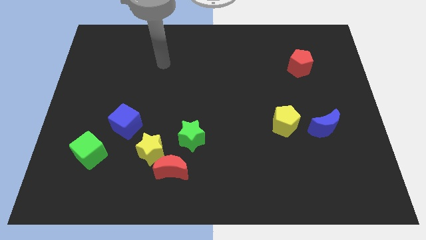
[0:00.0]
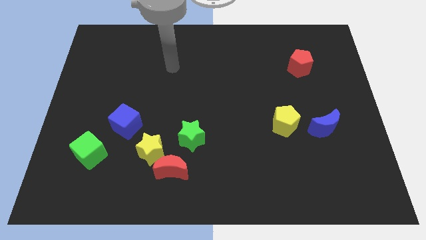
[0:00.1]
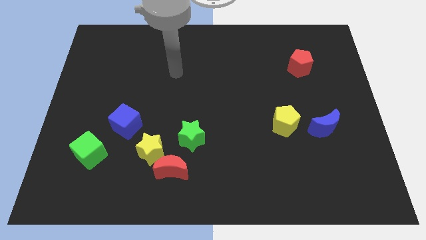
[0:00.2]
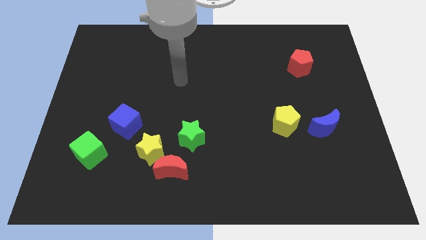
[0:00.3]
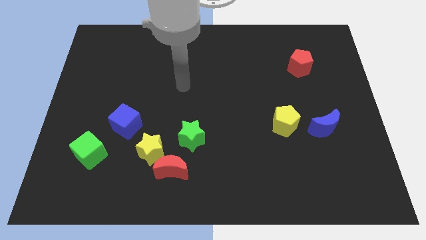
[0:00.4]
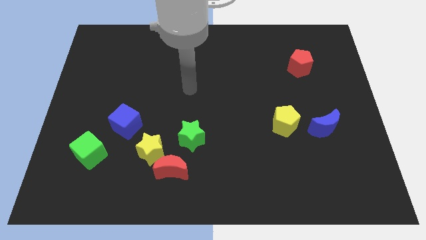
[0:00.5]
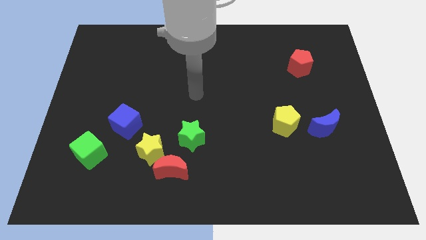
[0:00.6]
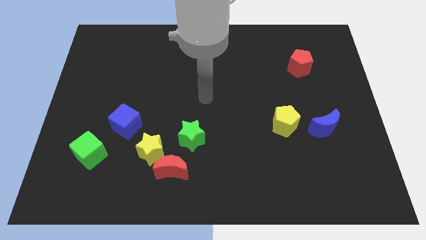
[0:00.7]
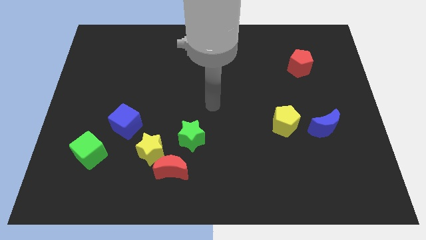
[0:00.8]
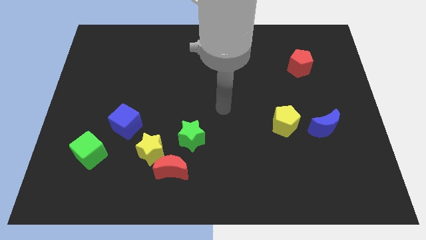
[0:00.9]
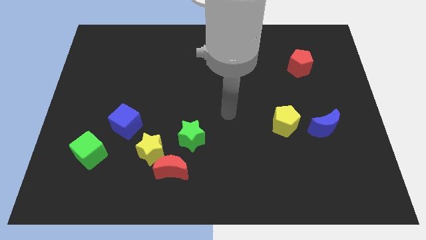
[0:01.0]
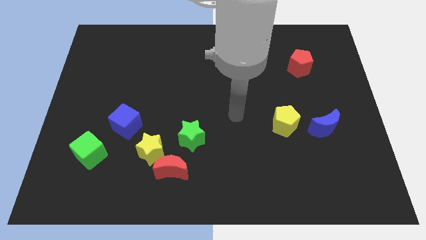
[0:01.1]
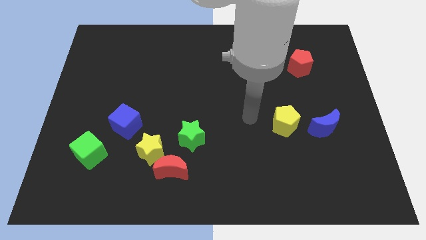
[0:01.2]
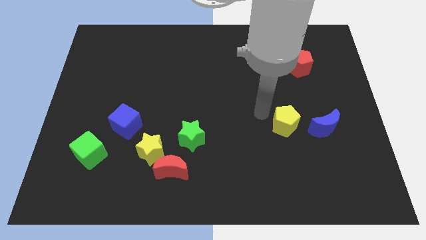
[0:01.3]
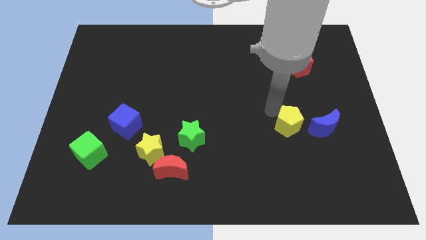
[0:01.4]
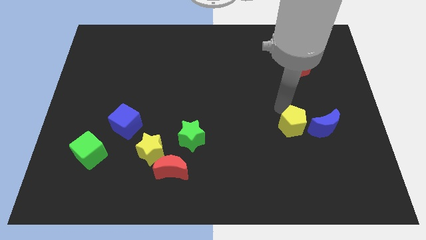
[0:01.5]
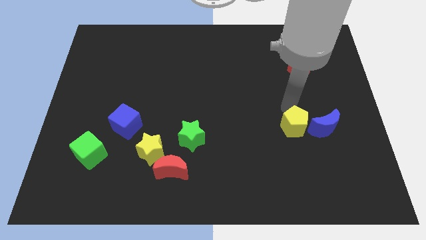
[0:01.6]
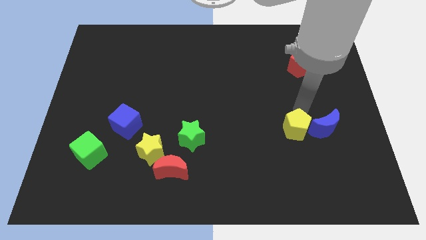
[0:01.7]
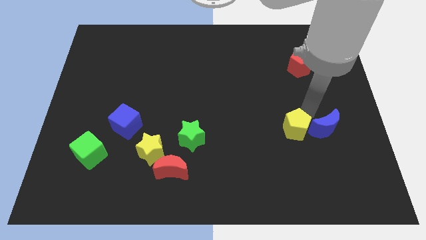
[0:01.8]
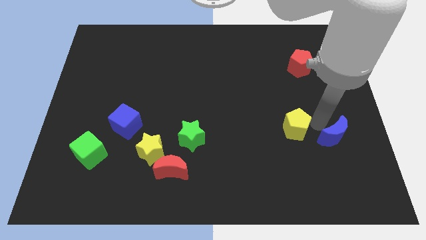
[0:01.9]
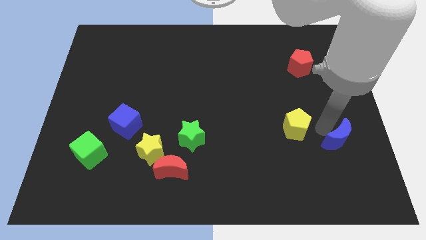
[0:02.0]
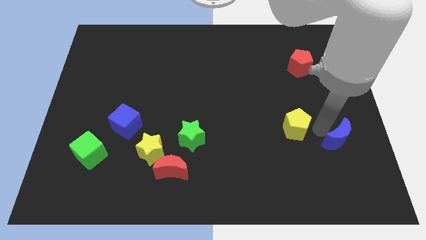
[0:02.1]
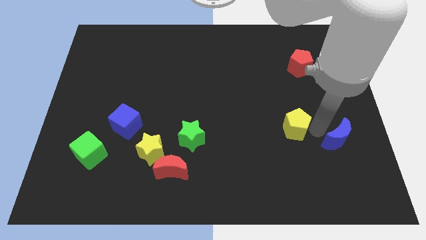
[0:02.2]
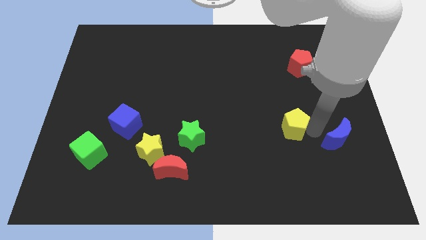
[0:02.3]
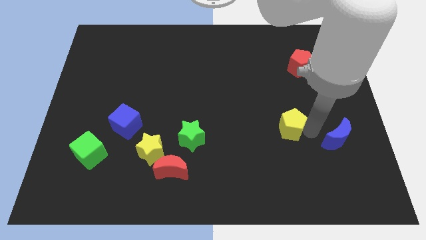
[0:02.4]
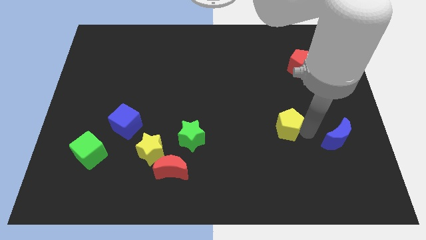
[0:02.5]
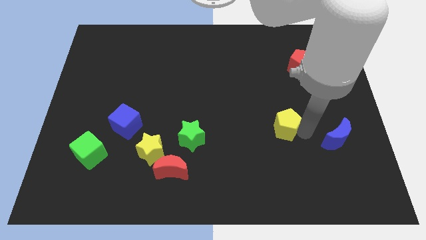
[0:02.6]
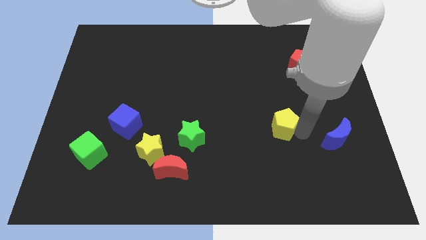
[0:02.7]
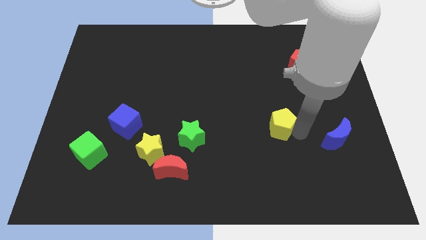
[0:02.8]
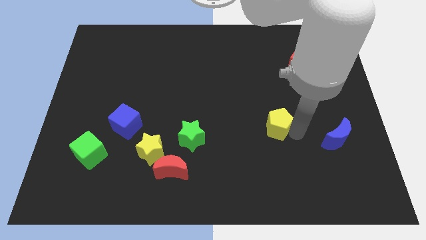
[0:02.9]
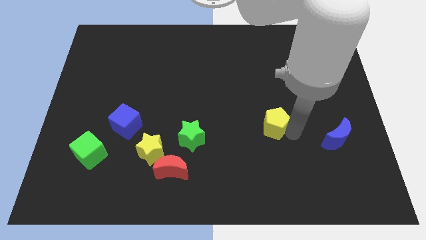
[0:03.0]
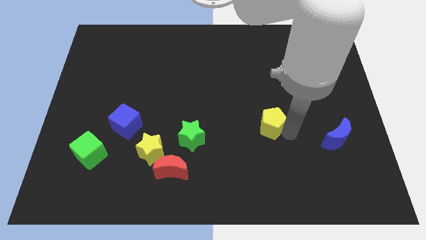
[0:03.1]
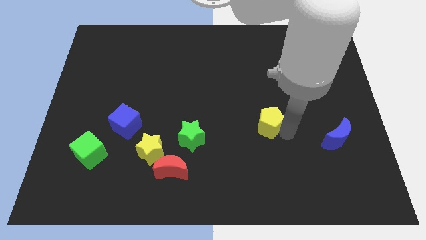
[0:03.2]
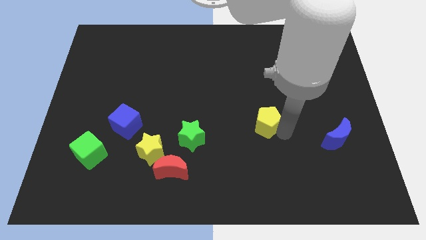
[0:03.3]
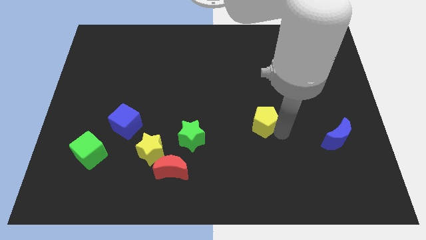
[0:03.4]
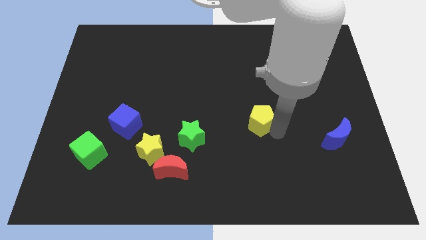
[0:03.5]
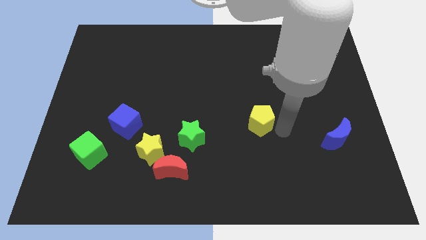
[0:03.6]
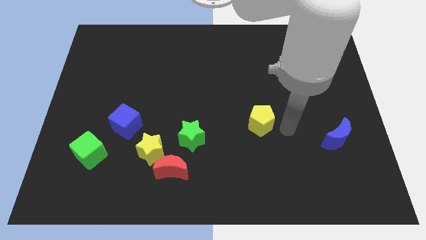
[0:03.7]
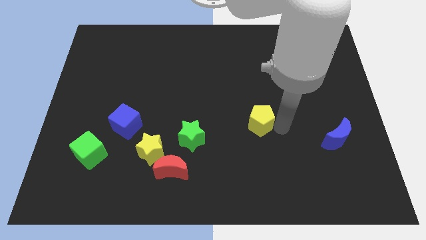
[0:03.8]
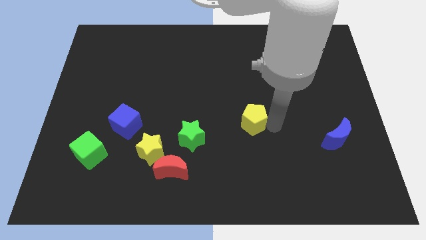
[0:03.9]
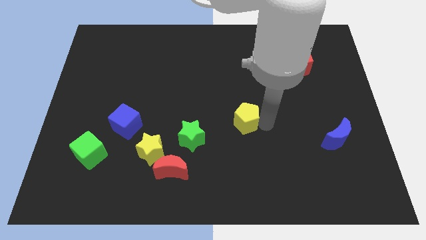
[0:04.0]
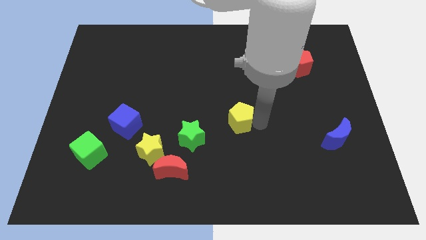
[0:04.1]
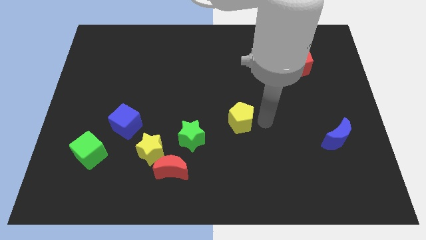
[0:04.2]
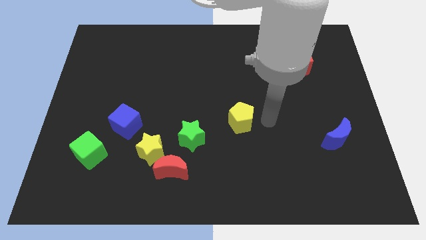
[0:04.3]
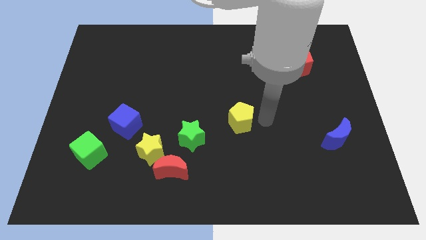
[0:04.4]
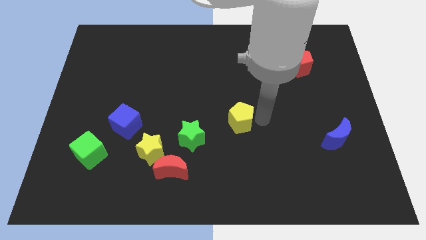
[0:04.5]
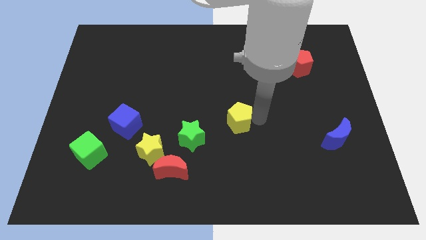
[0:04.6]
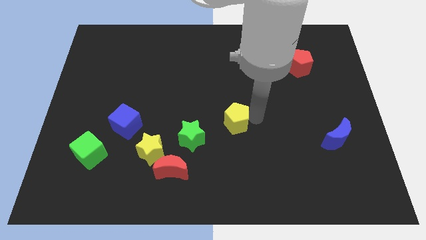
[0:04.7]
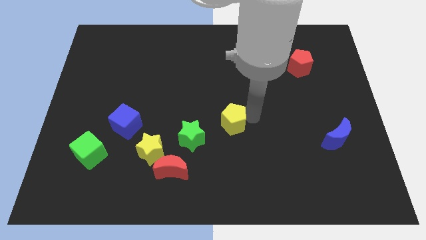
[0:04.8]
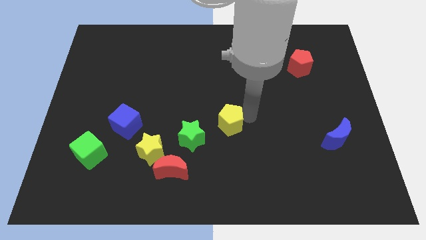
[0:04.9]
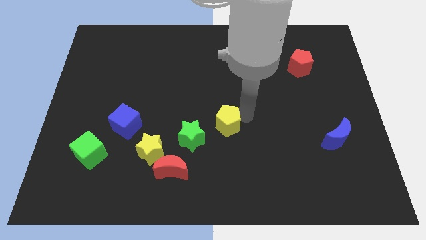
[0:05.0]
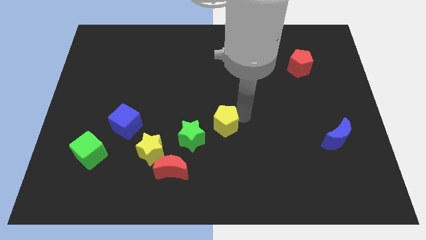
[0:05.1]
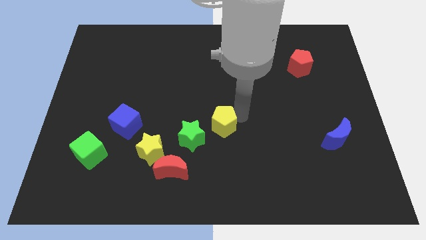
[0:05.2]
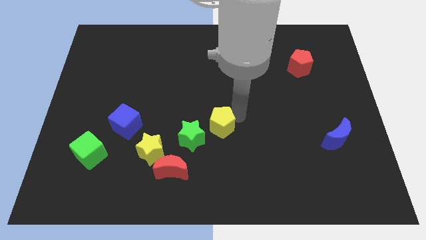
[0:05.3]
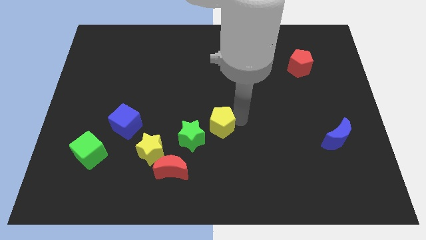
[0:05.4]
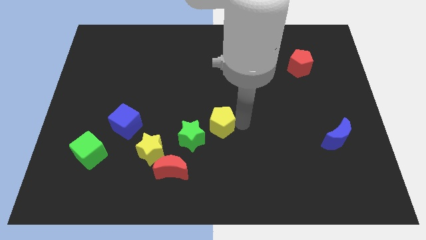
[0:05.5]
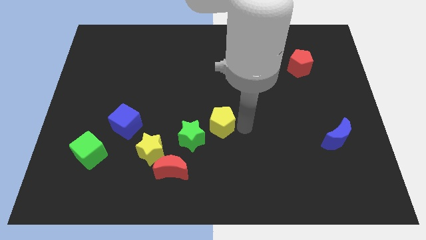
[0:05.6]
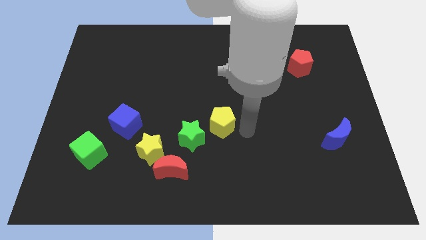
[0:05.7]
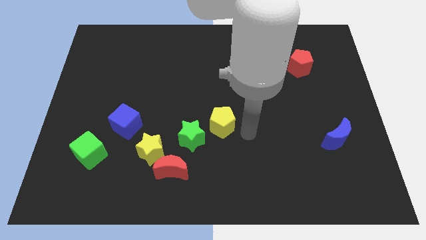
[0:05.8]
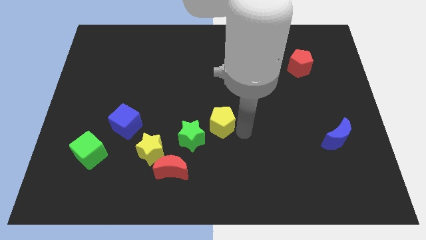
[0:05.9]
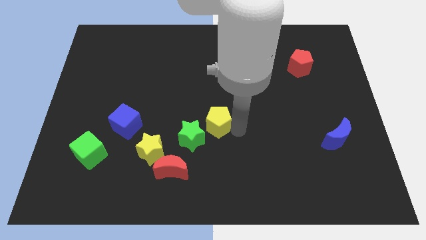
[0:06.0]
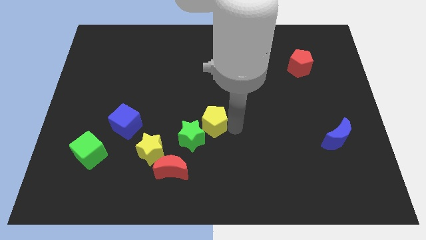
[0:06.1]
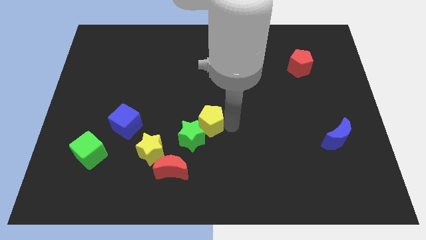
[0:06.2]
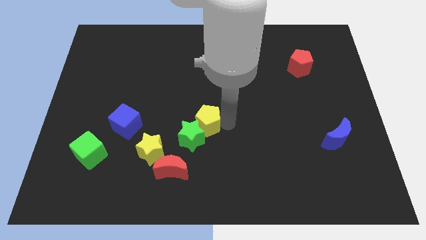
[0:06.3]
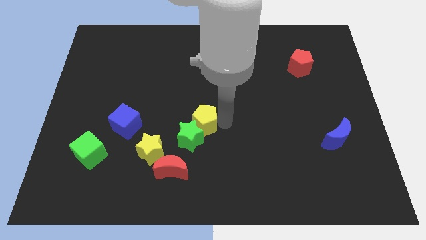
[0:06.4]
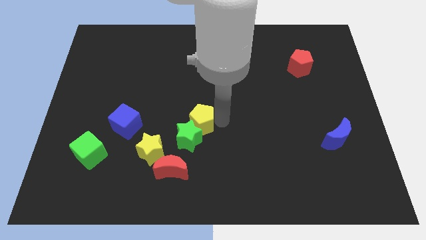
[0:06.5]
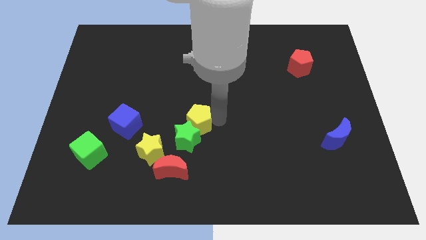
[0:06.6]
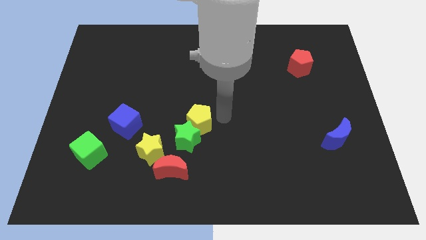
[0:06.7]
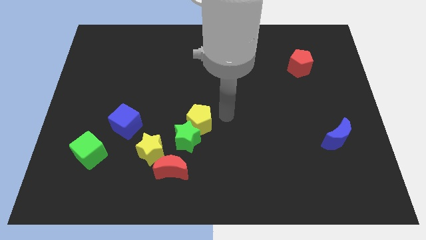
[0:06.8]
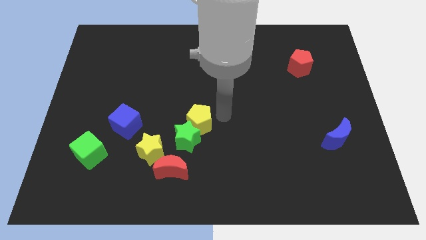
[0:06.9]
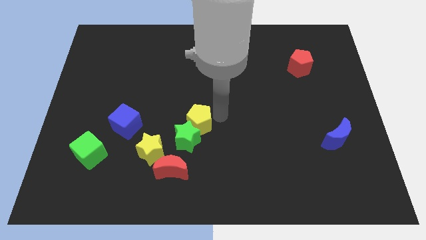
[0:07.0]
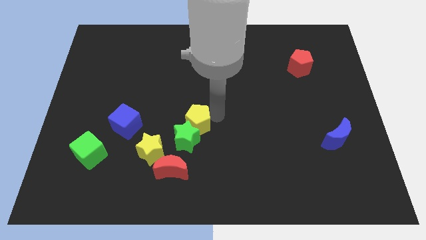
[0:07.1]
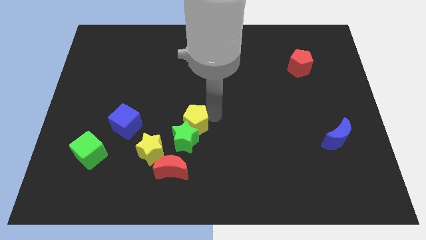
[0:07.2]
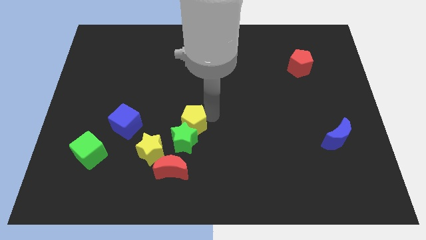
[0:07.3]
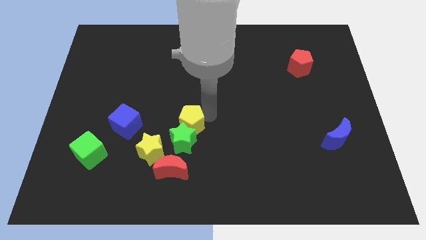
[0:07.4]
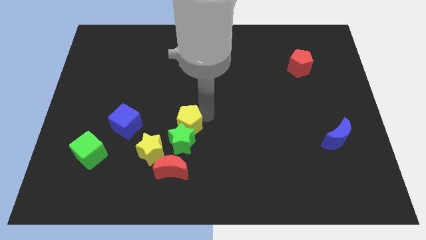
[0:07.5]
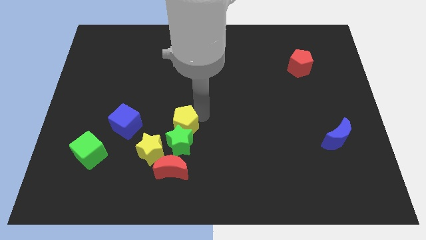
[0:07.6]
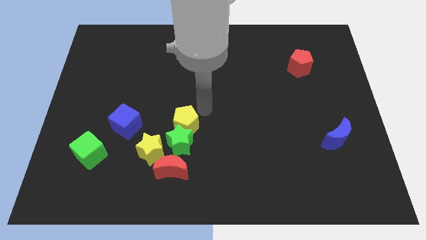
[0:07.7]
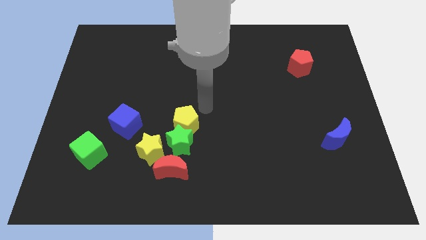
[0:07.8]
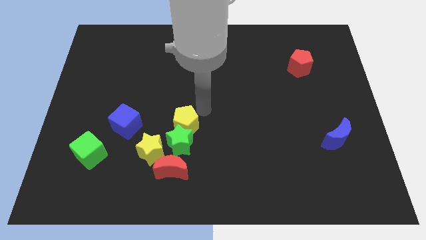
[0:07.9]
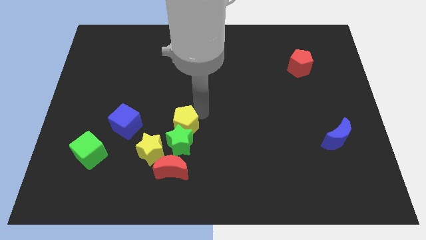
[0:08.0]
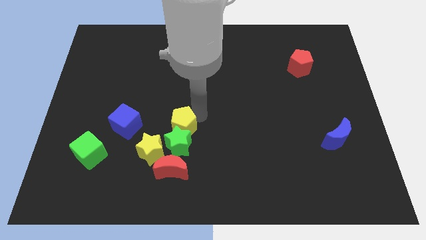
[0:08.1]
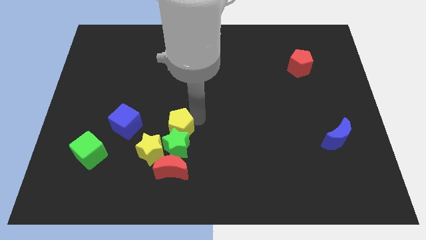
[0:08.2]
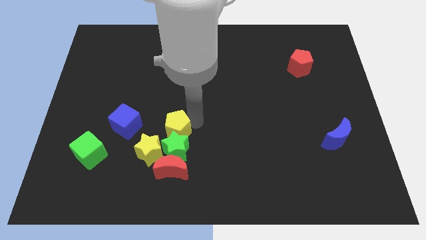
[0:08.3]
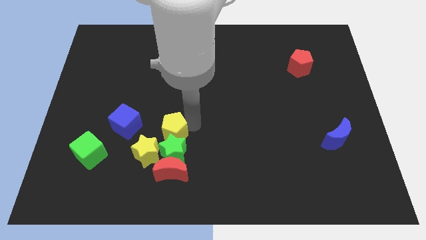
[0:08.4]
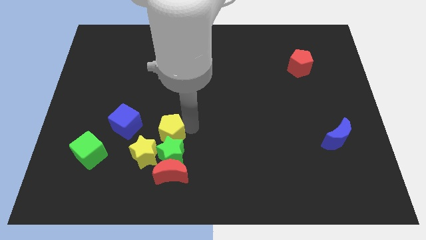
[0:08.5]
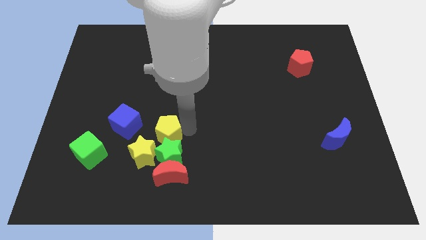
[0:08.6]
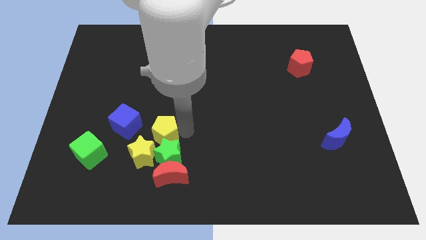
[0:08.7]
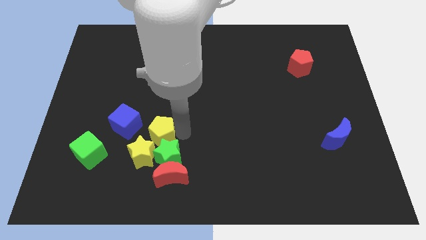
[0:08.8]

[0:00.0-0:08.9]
move the yellow pentagon to the yellow star
